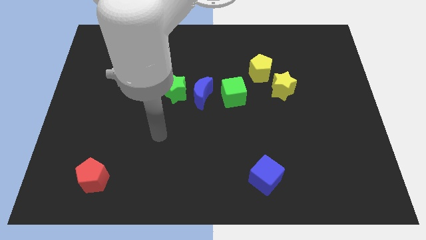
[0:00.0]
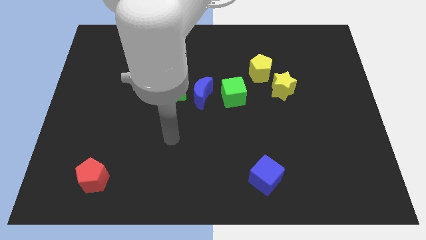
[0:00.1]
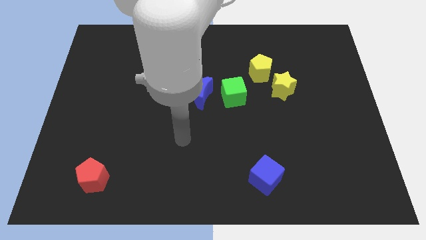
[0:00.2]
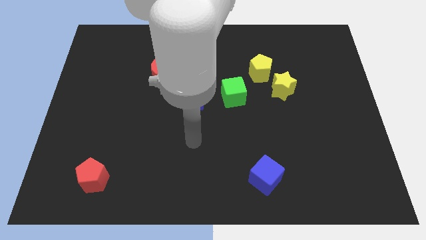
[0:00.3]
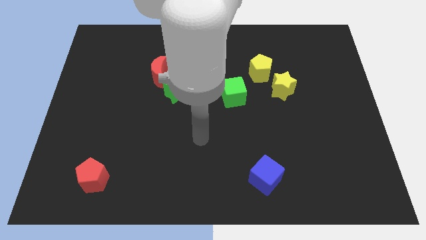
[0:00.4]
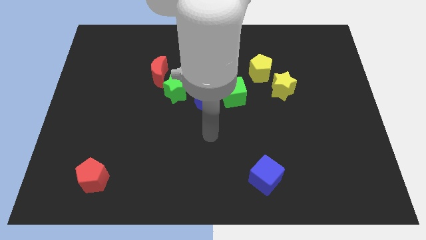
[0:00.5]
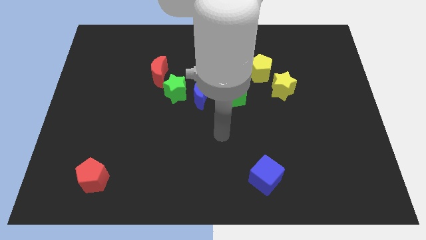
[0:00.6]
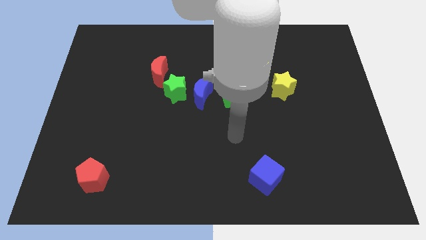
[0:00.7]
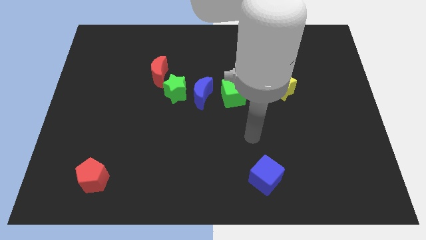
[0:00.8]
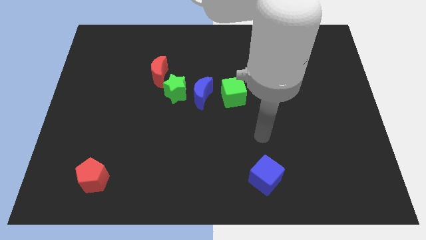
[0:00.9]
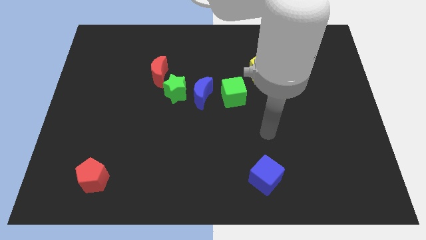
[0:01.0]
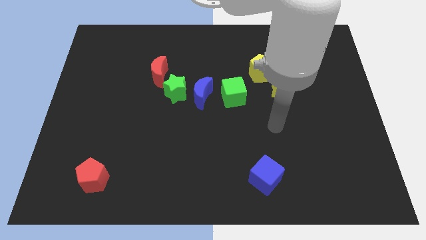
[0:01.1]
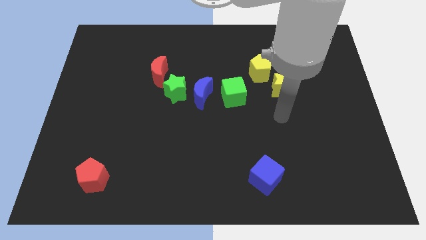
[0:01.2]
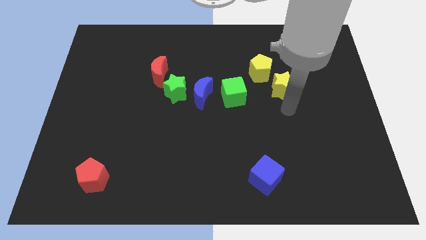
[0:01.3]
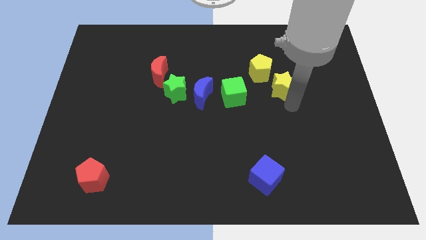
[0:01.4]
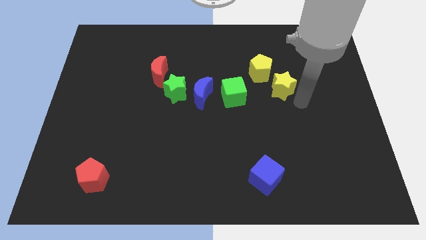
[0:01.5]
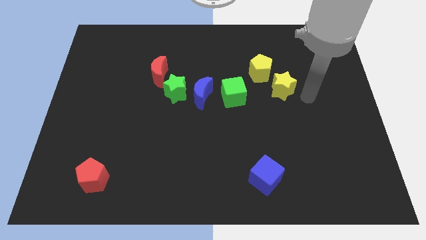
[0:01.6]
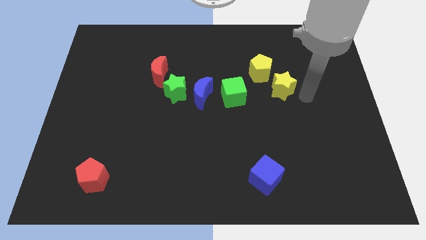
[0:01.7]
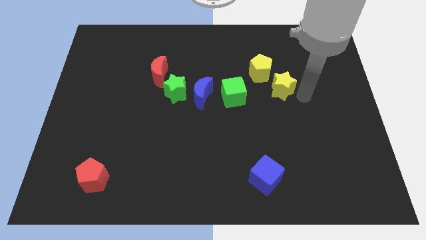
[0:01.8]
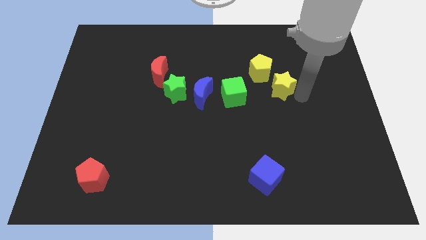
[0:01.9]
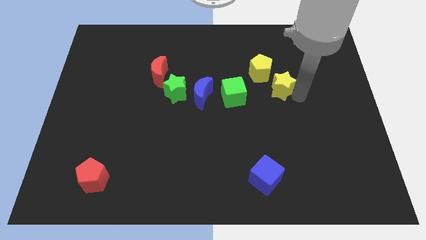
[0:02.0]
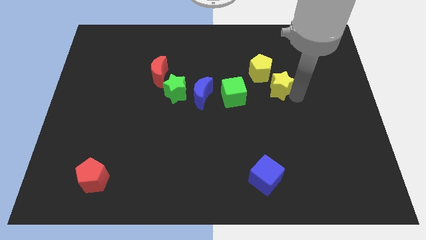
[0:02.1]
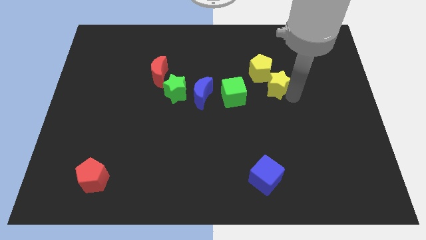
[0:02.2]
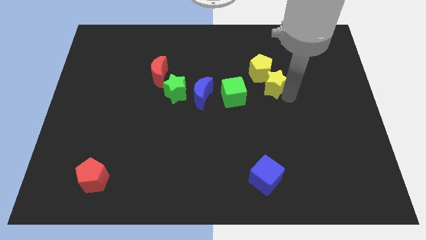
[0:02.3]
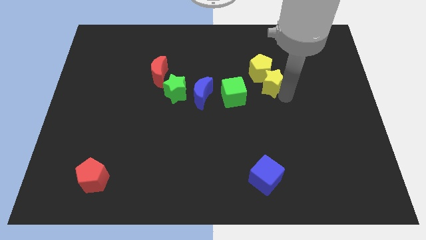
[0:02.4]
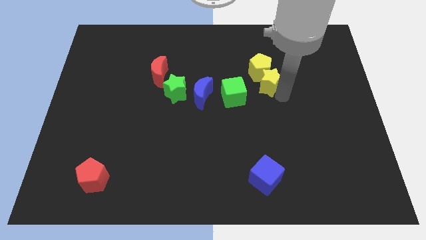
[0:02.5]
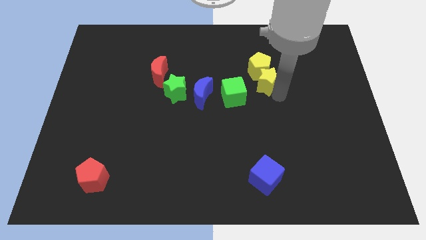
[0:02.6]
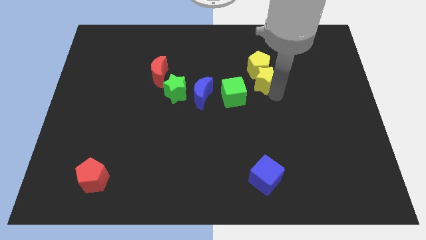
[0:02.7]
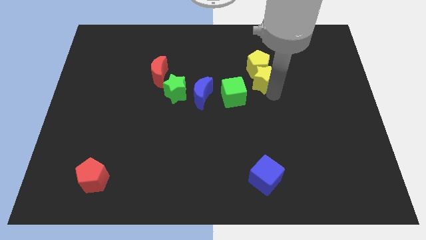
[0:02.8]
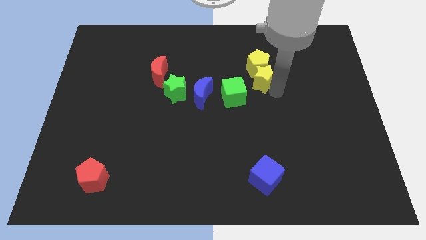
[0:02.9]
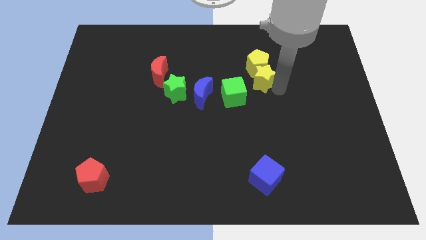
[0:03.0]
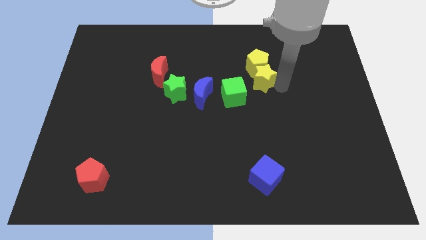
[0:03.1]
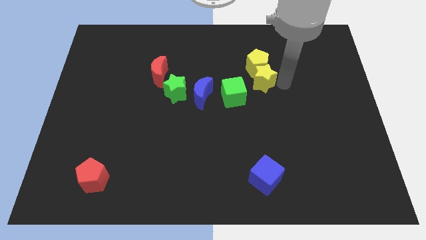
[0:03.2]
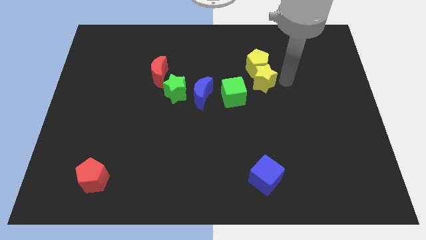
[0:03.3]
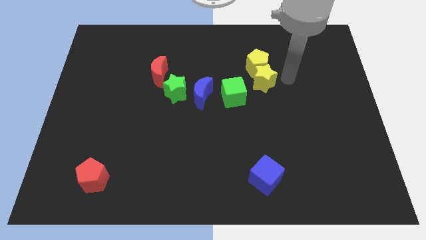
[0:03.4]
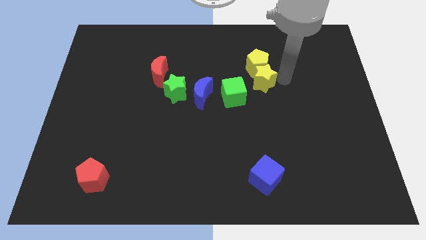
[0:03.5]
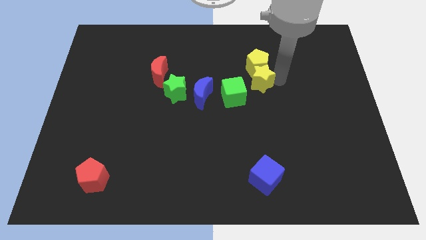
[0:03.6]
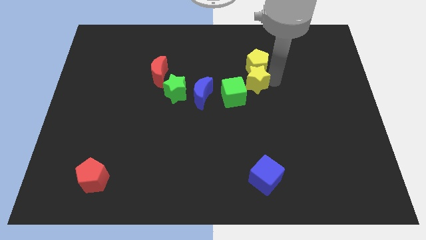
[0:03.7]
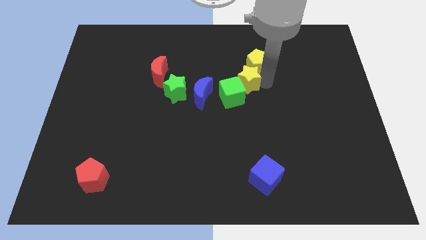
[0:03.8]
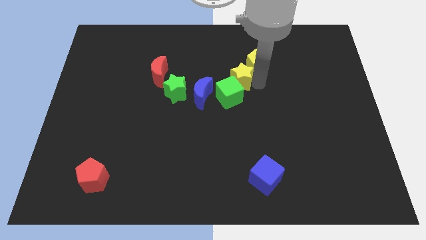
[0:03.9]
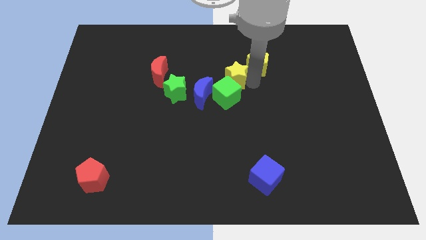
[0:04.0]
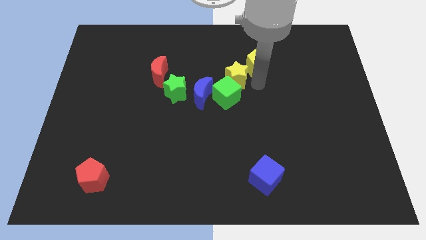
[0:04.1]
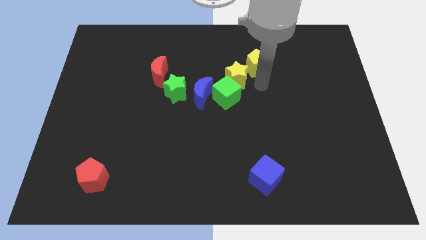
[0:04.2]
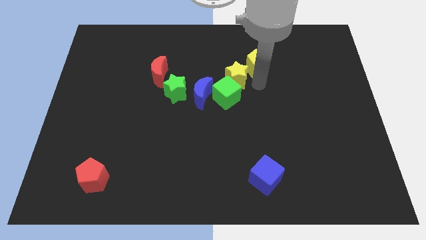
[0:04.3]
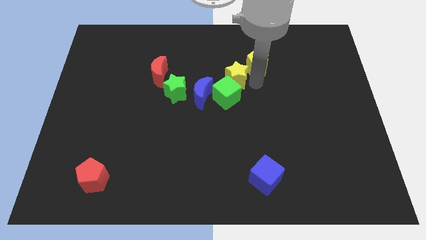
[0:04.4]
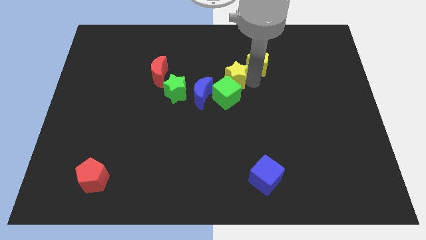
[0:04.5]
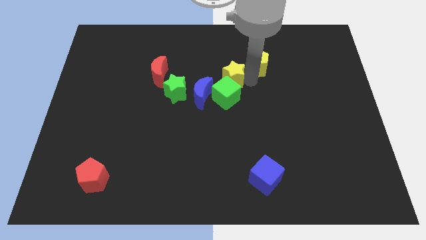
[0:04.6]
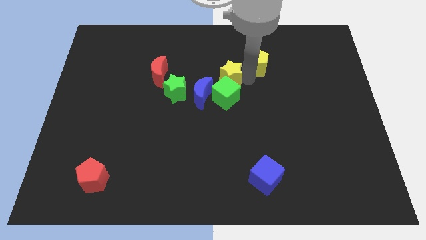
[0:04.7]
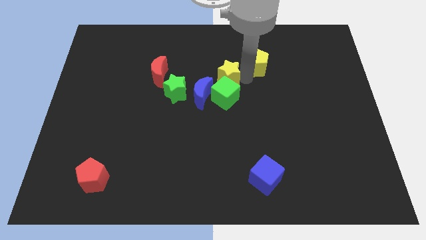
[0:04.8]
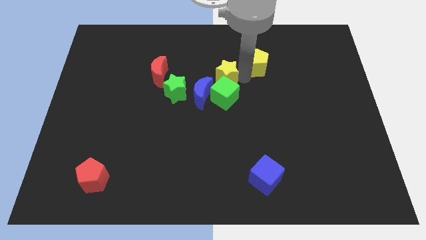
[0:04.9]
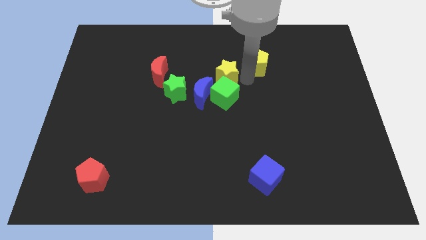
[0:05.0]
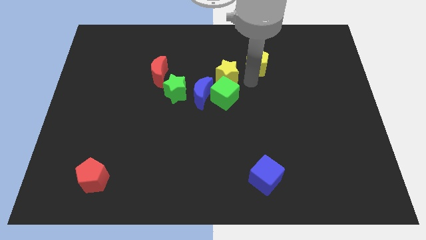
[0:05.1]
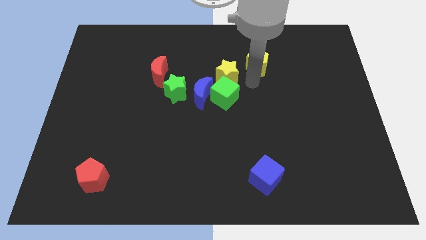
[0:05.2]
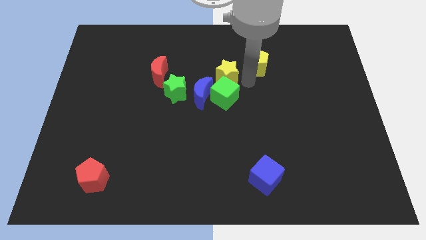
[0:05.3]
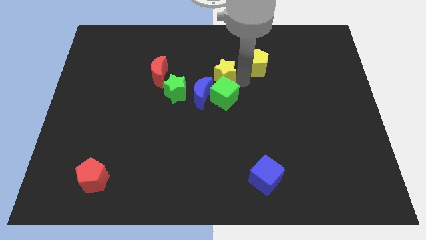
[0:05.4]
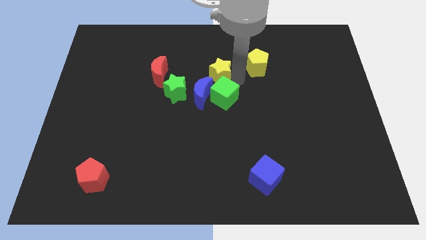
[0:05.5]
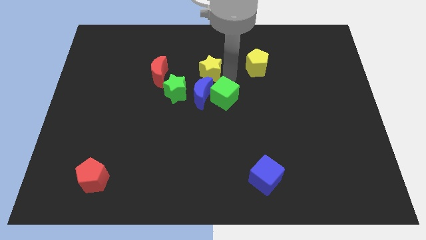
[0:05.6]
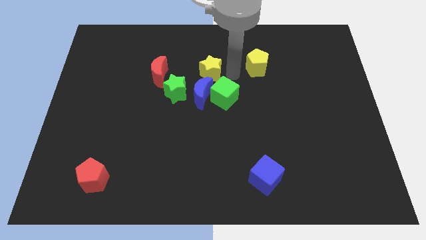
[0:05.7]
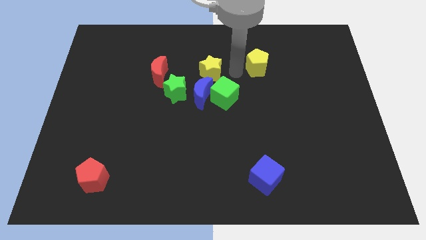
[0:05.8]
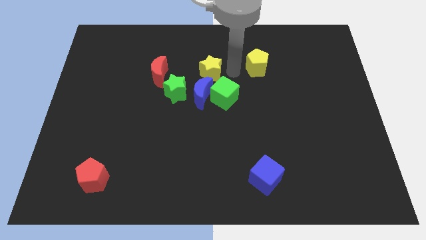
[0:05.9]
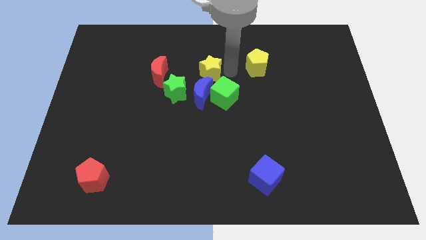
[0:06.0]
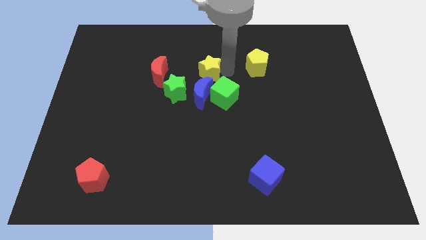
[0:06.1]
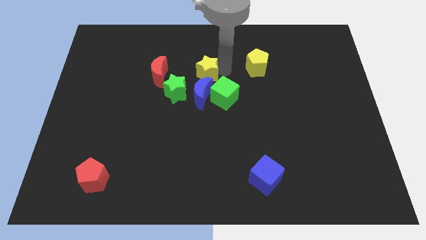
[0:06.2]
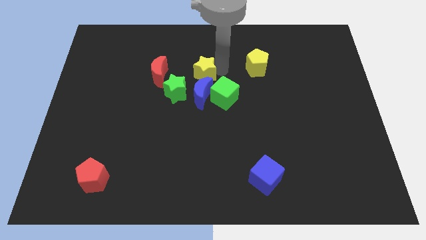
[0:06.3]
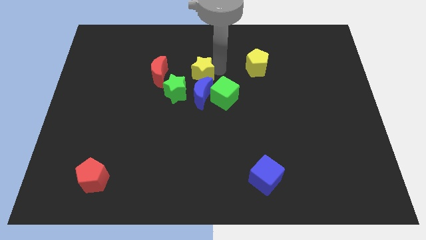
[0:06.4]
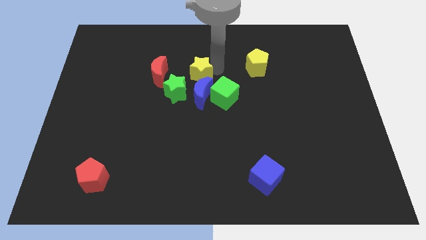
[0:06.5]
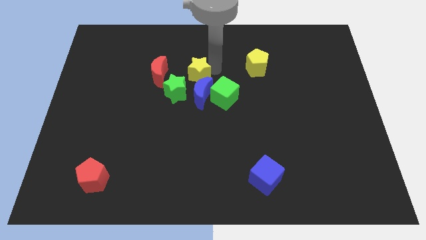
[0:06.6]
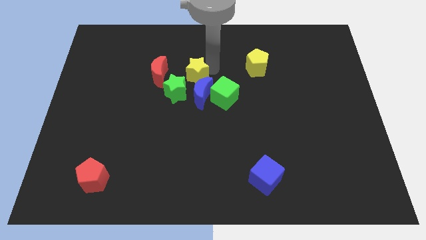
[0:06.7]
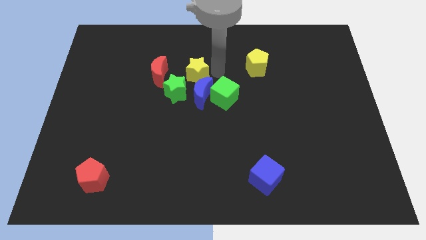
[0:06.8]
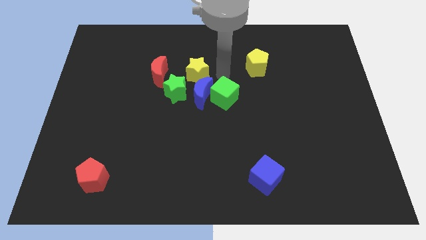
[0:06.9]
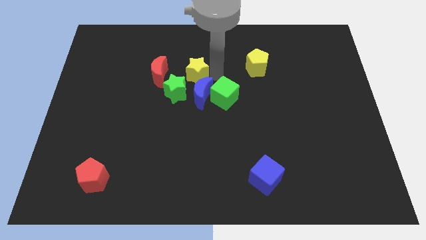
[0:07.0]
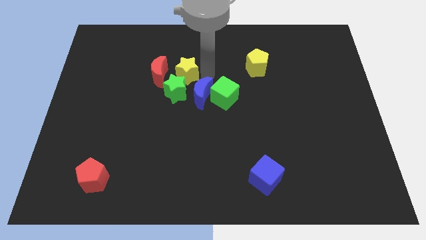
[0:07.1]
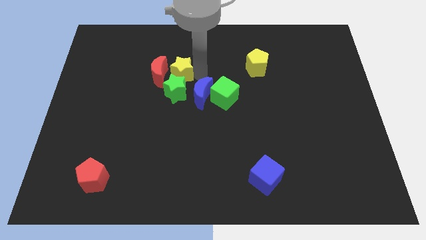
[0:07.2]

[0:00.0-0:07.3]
put the yellow star to the red moon

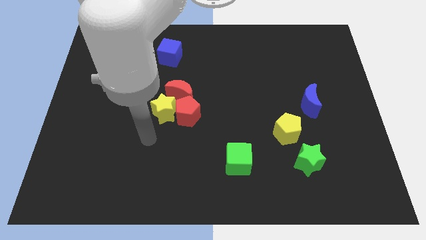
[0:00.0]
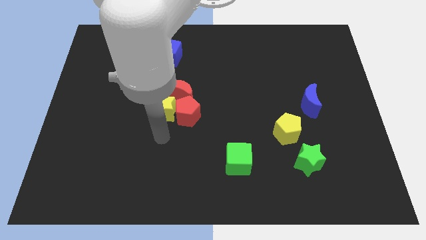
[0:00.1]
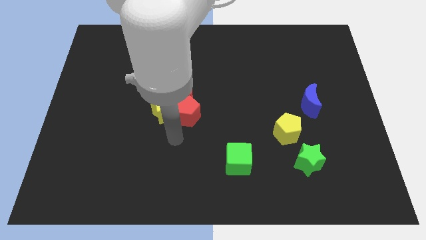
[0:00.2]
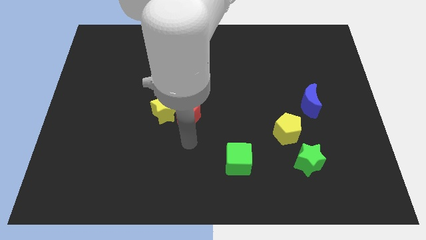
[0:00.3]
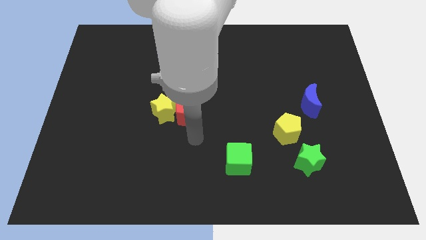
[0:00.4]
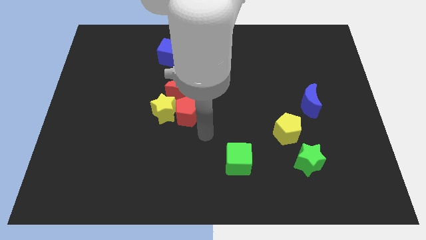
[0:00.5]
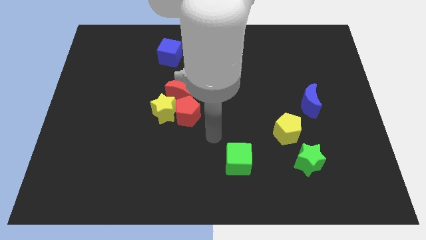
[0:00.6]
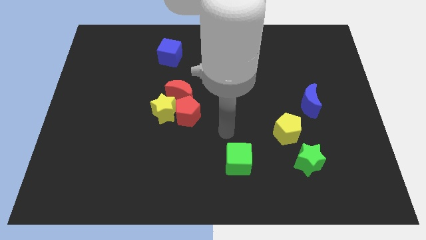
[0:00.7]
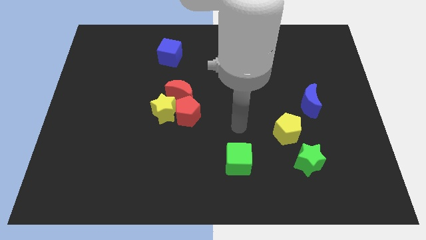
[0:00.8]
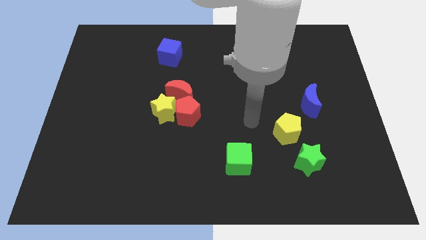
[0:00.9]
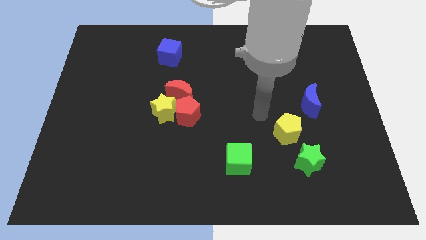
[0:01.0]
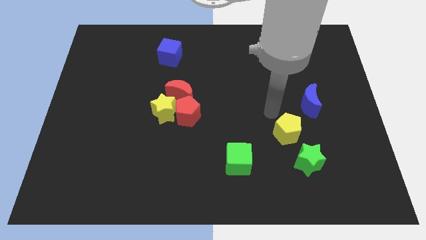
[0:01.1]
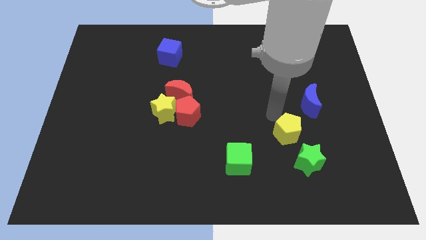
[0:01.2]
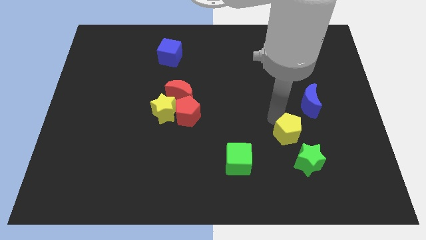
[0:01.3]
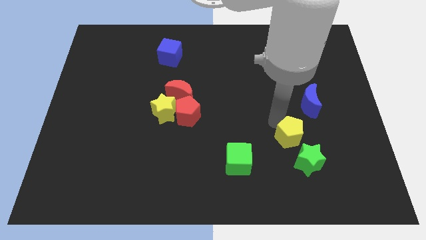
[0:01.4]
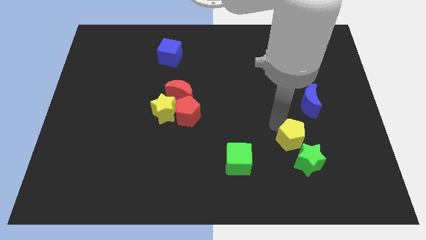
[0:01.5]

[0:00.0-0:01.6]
push the yellow pentagon close to the green star
